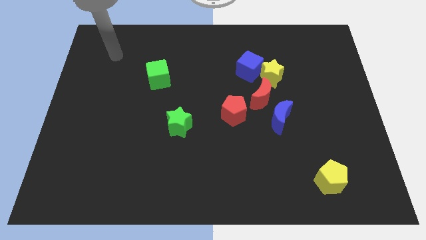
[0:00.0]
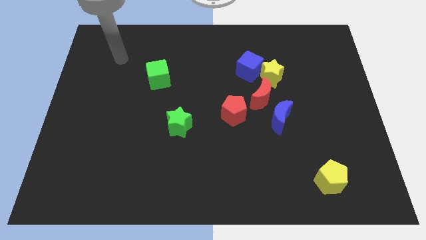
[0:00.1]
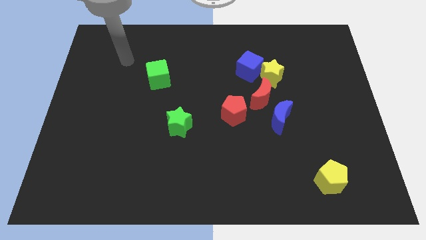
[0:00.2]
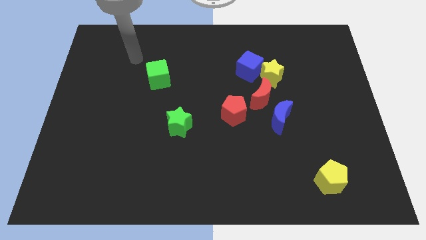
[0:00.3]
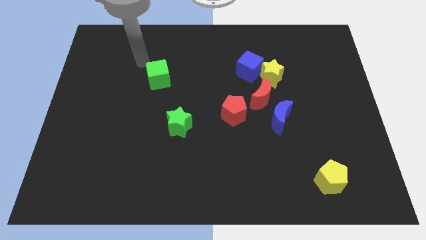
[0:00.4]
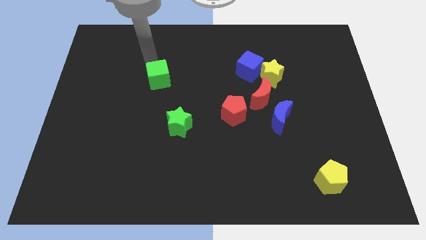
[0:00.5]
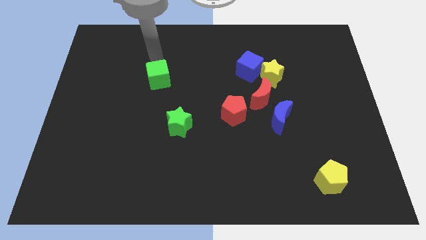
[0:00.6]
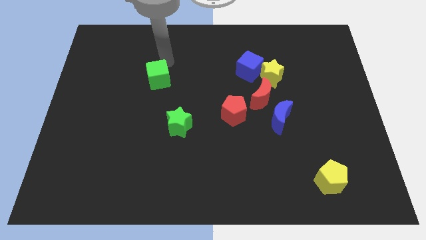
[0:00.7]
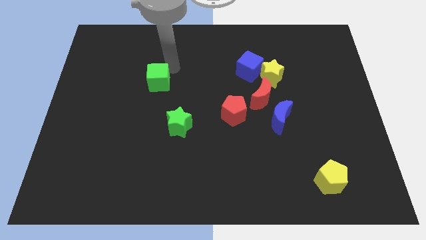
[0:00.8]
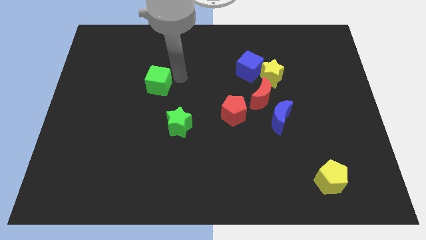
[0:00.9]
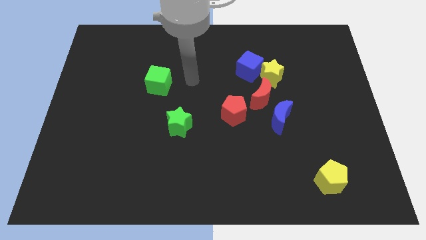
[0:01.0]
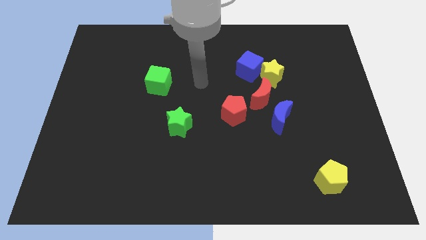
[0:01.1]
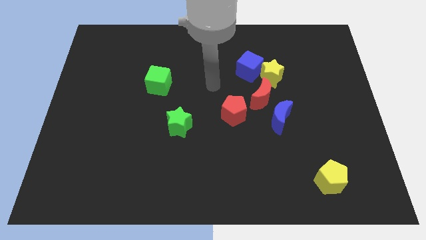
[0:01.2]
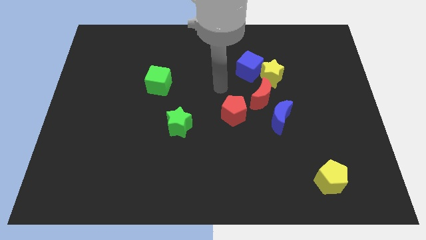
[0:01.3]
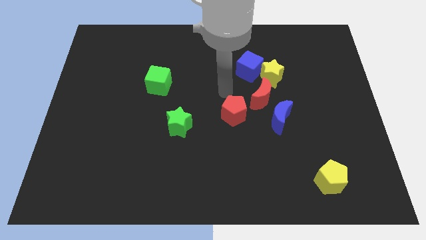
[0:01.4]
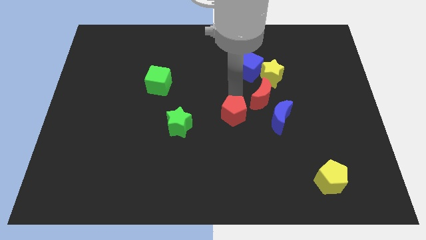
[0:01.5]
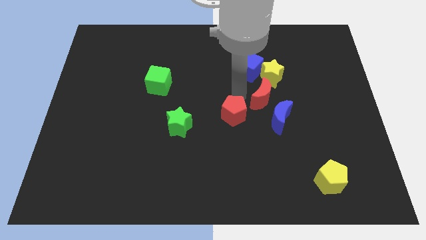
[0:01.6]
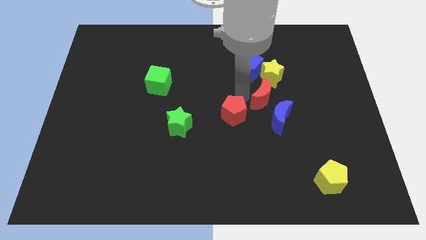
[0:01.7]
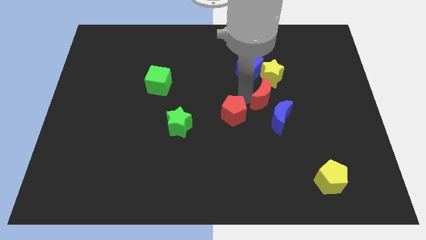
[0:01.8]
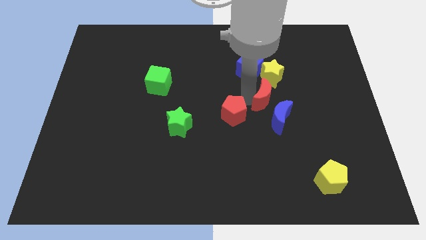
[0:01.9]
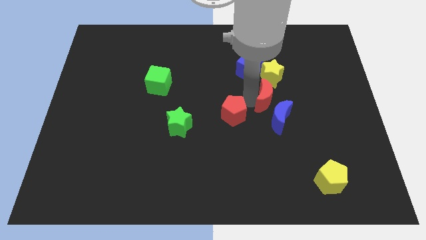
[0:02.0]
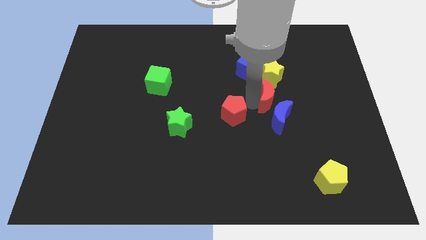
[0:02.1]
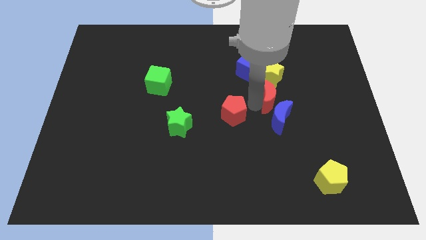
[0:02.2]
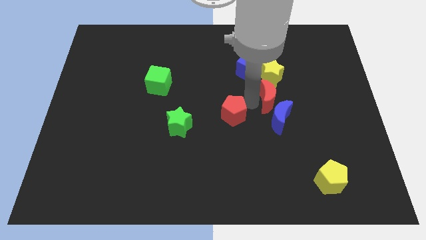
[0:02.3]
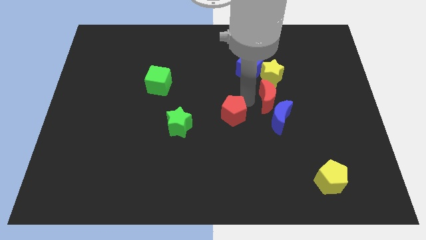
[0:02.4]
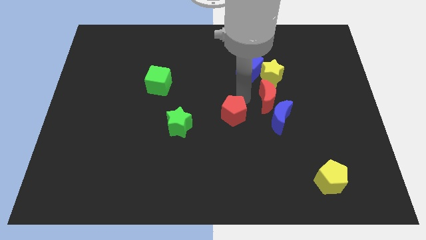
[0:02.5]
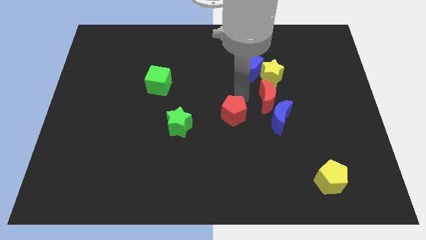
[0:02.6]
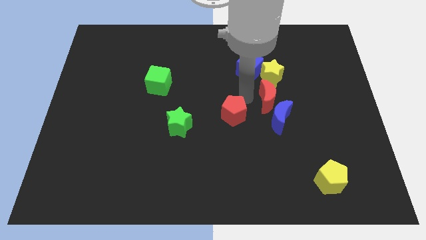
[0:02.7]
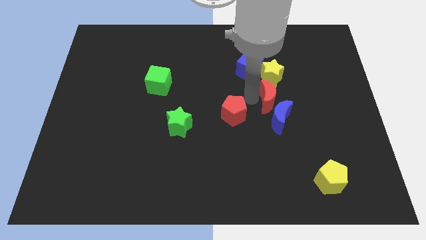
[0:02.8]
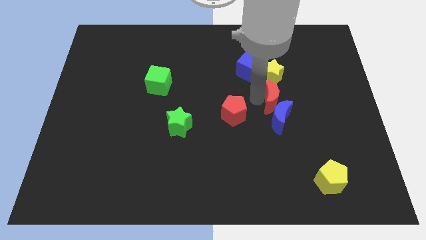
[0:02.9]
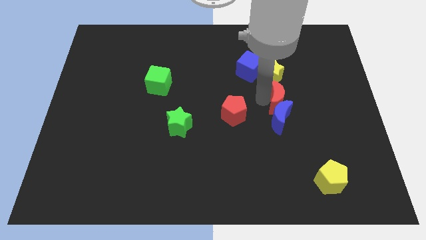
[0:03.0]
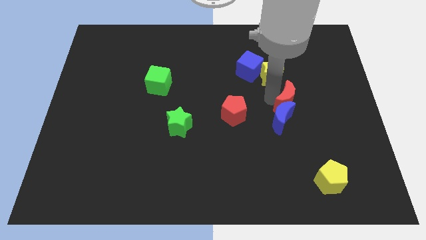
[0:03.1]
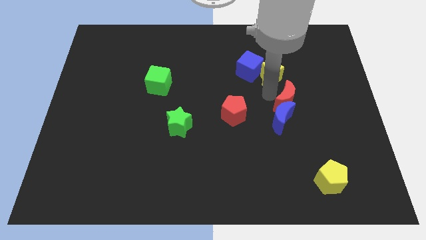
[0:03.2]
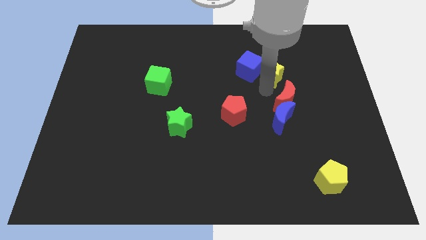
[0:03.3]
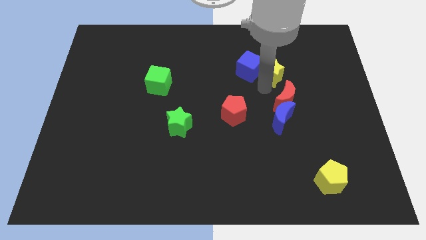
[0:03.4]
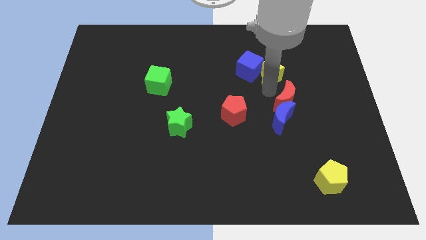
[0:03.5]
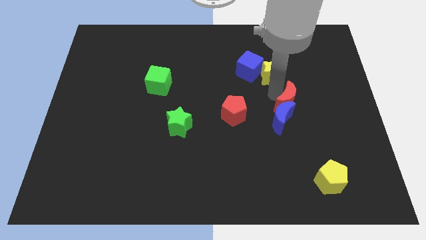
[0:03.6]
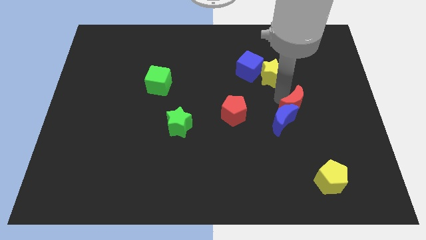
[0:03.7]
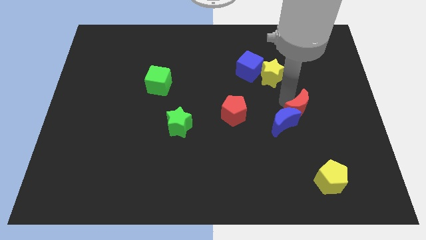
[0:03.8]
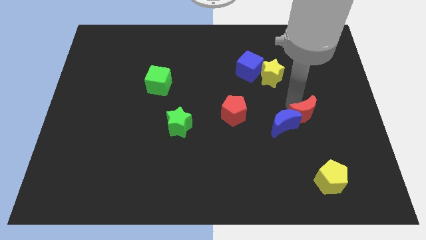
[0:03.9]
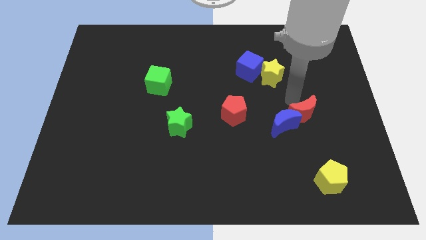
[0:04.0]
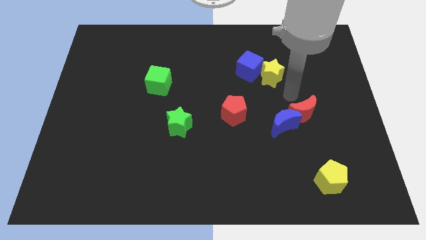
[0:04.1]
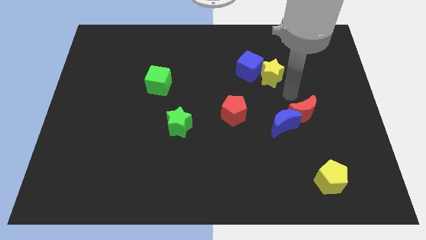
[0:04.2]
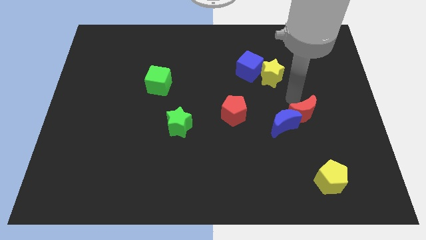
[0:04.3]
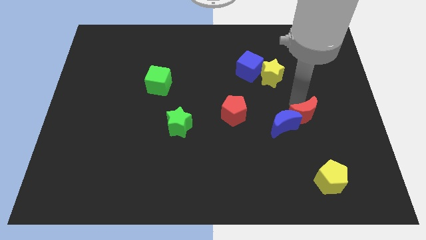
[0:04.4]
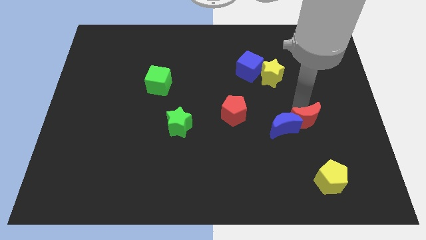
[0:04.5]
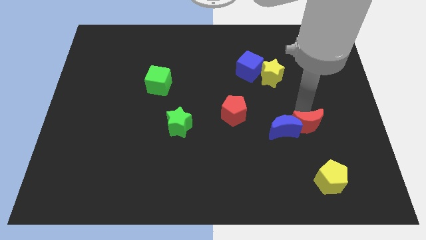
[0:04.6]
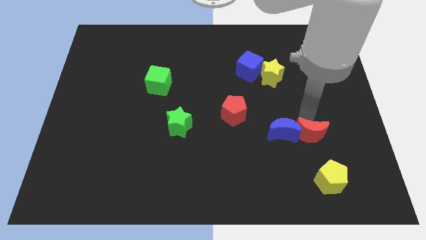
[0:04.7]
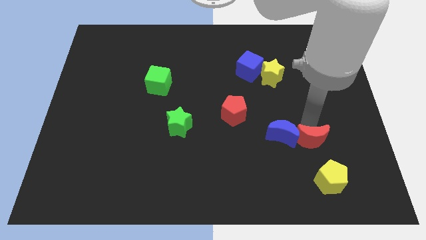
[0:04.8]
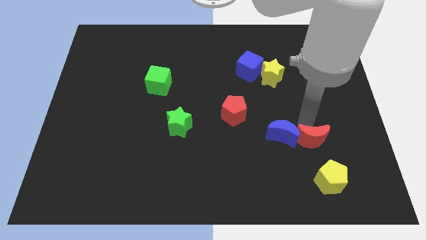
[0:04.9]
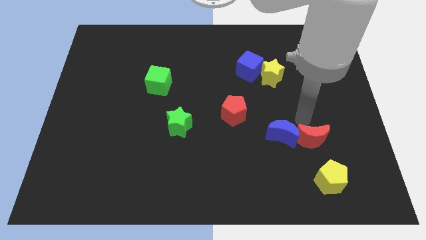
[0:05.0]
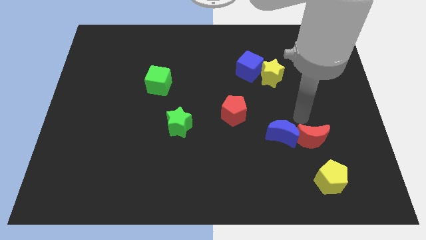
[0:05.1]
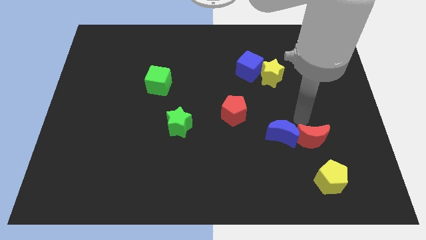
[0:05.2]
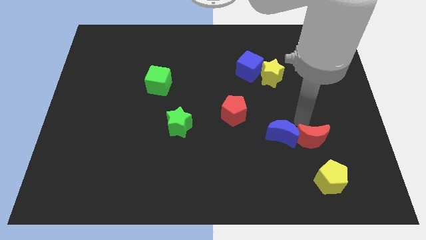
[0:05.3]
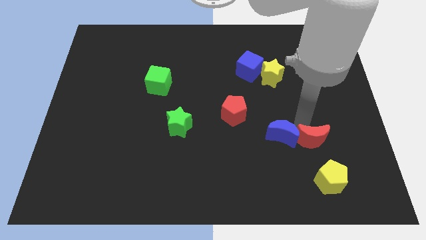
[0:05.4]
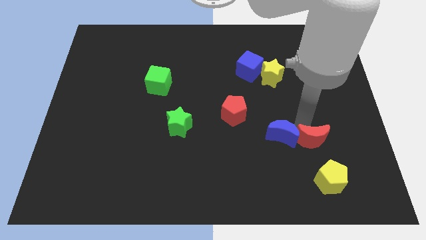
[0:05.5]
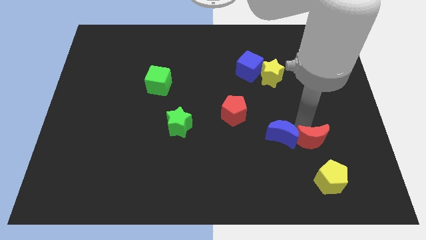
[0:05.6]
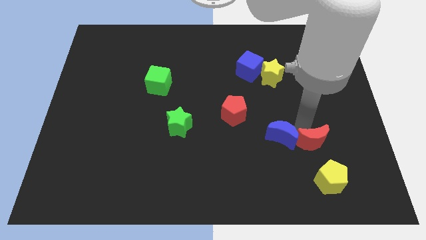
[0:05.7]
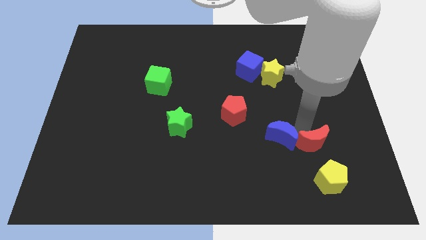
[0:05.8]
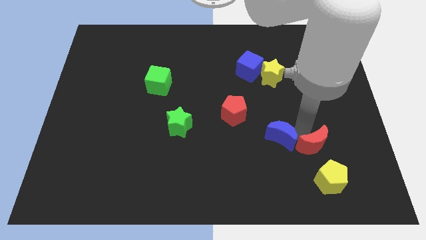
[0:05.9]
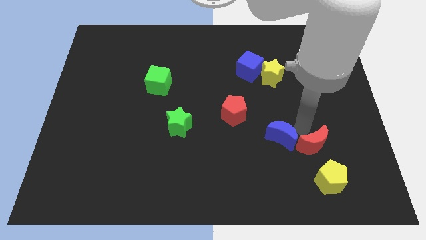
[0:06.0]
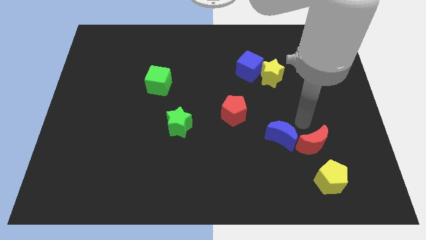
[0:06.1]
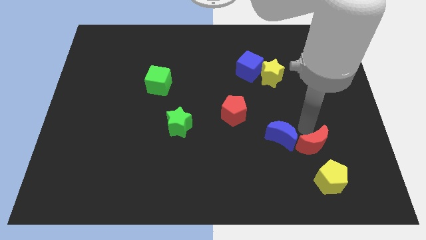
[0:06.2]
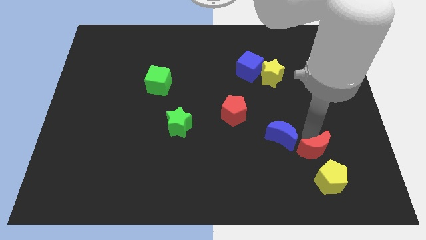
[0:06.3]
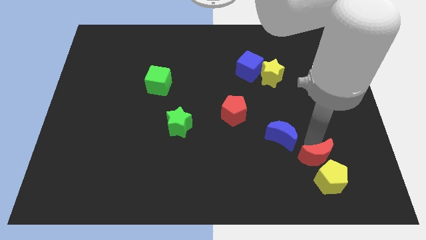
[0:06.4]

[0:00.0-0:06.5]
push the red moon next to the yellow pentagon
